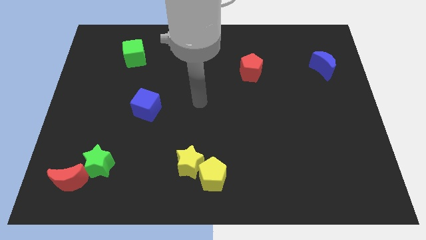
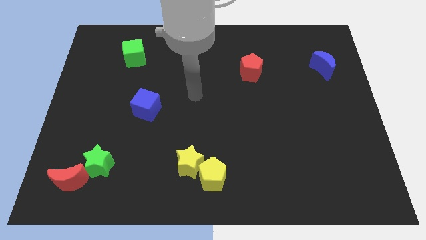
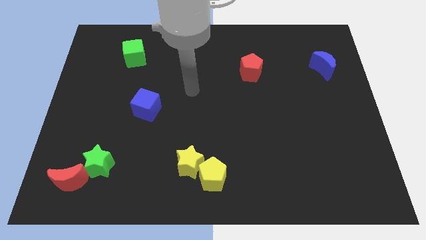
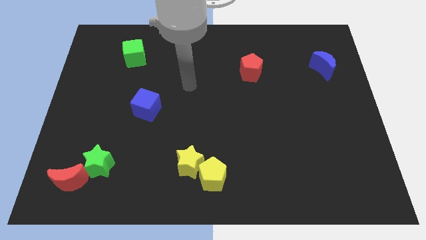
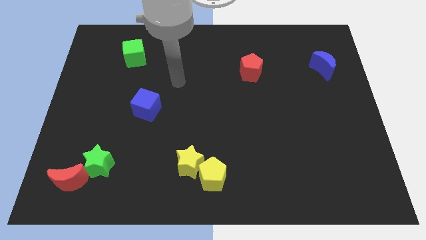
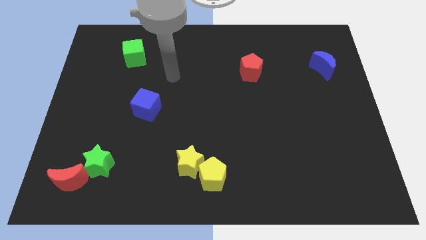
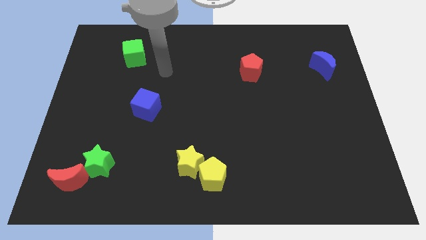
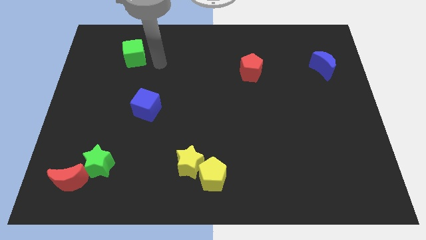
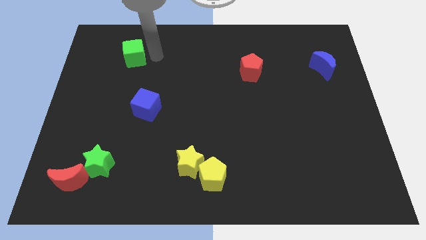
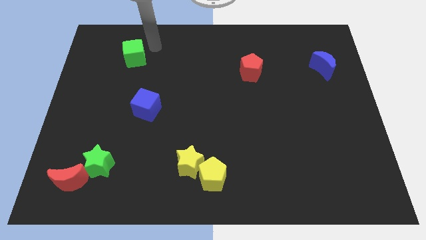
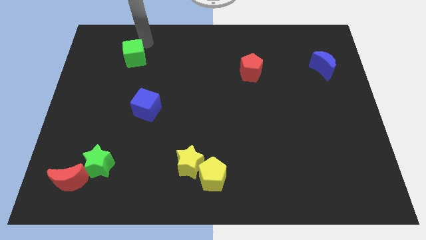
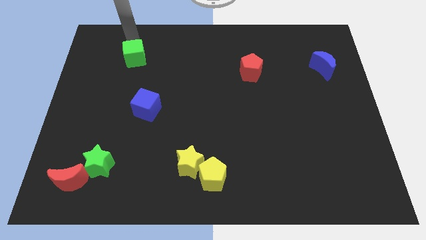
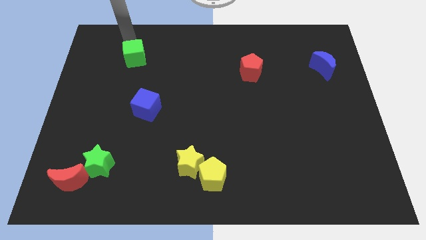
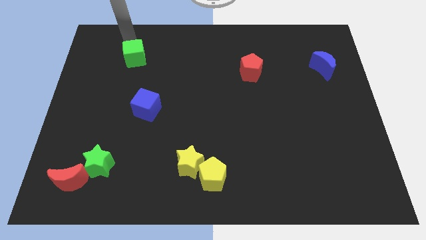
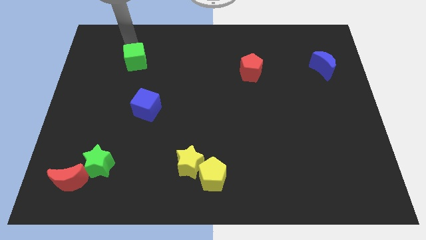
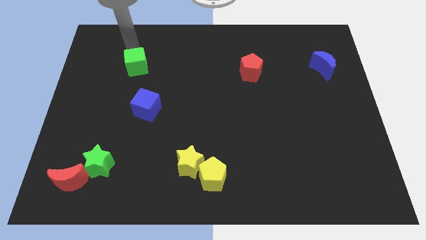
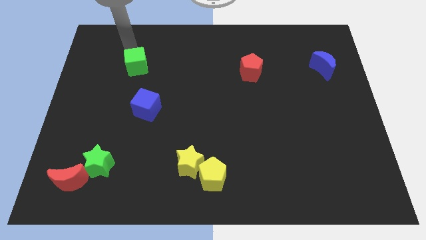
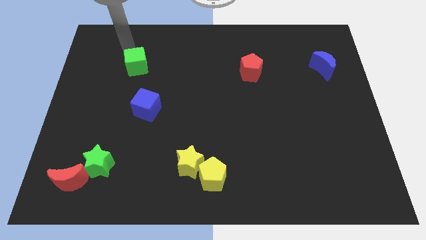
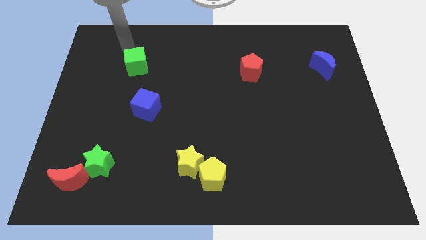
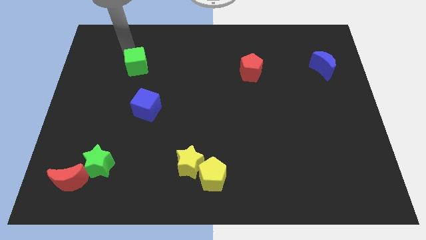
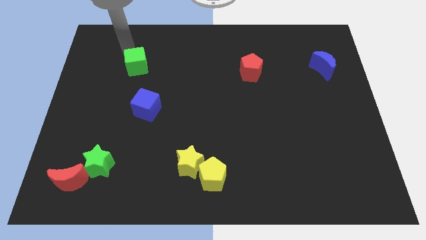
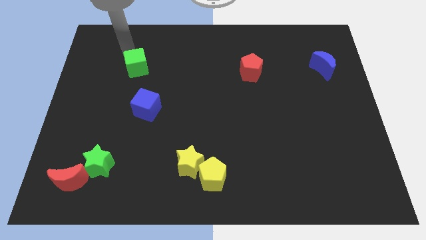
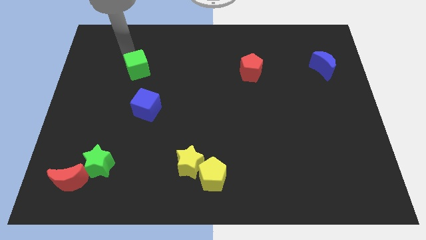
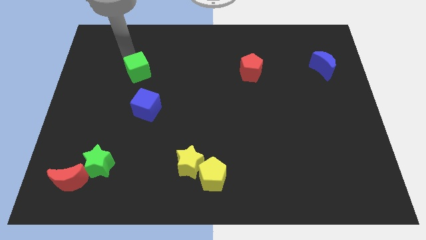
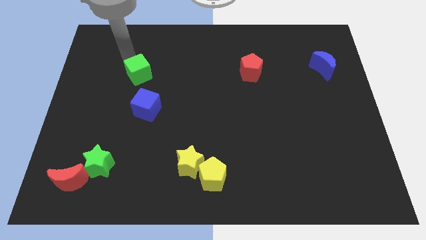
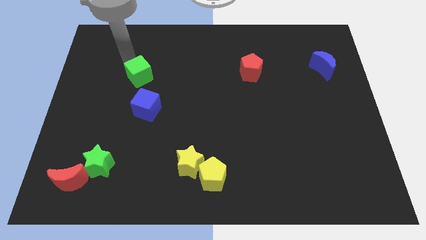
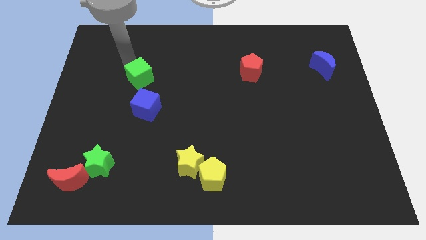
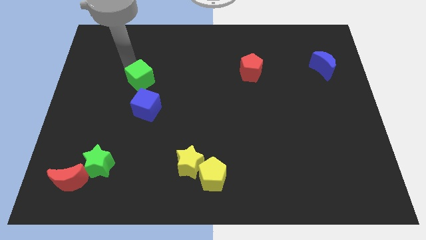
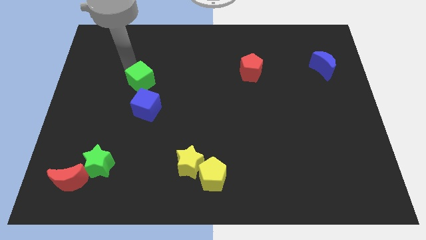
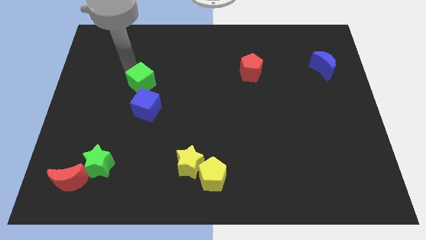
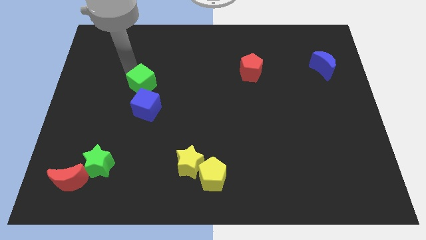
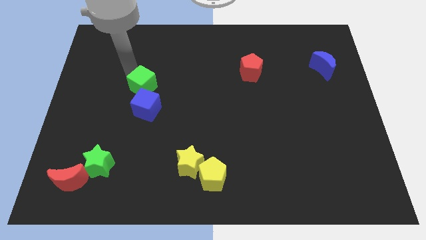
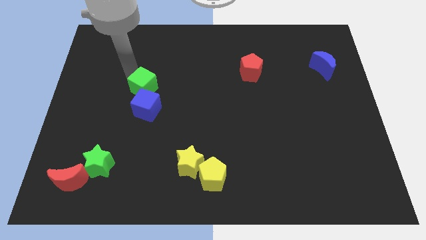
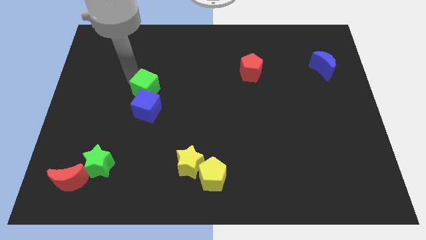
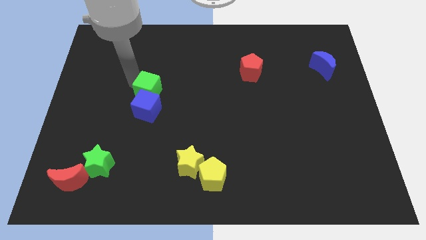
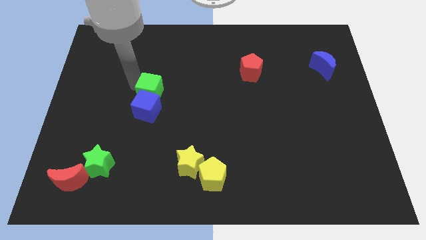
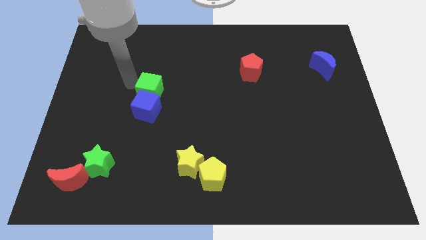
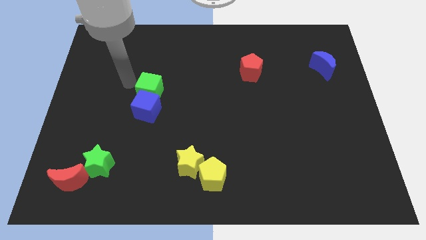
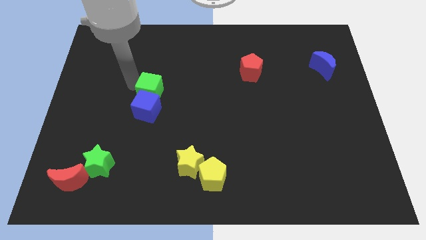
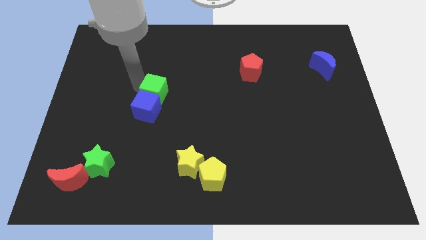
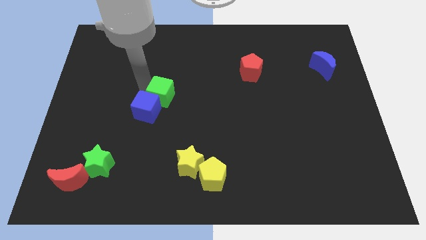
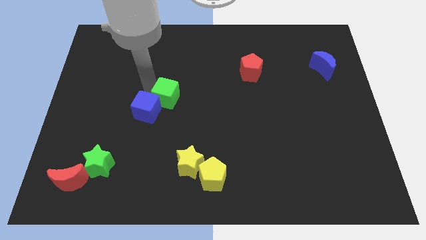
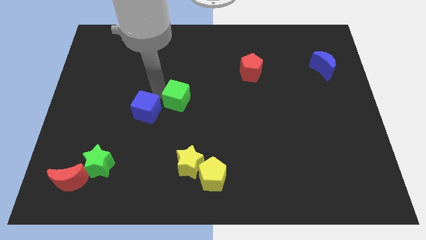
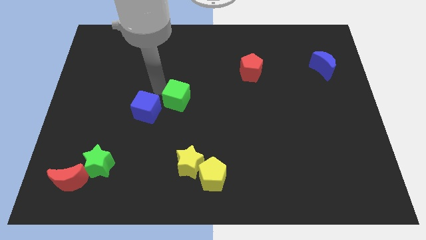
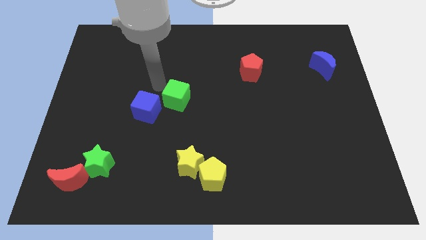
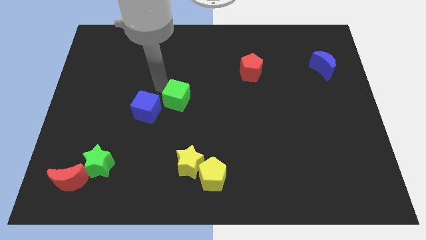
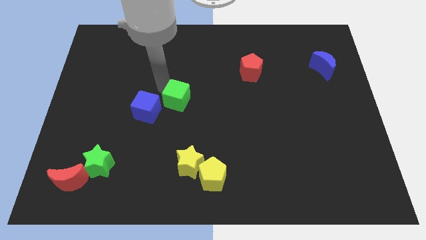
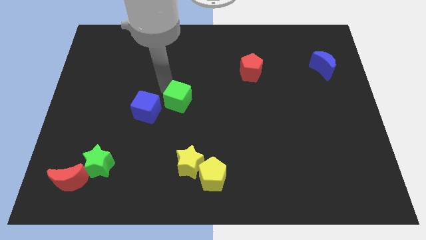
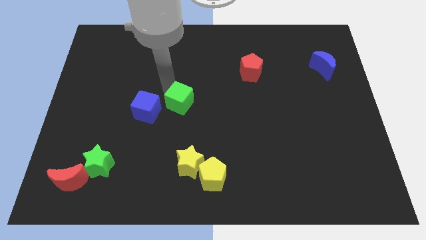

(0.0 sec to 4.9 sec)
slide the green cube downwards and then to the right

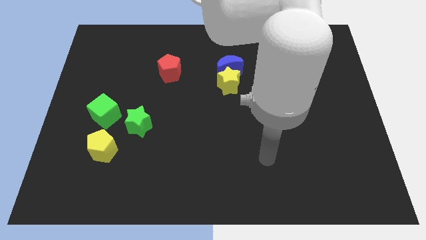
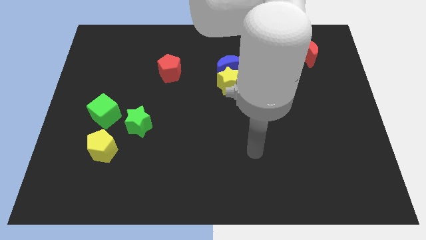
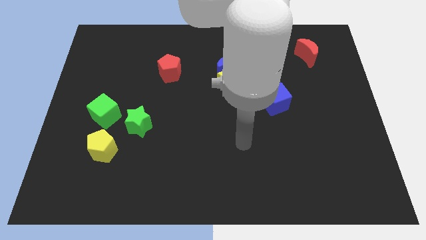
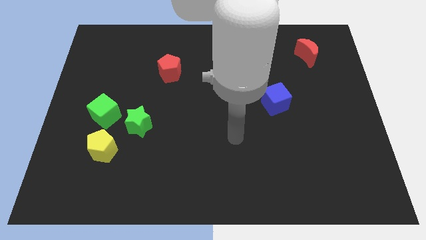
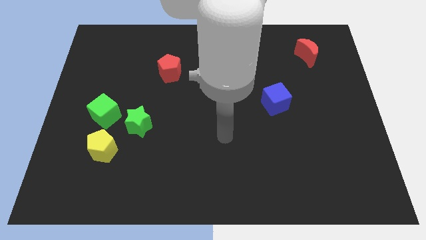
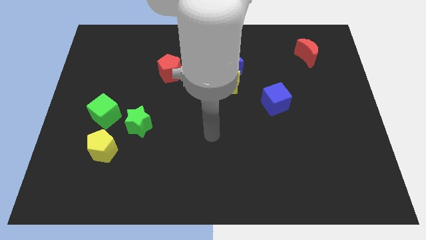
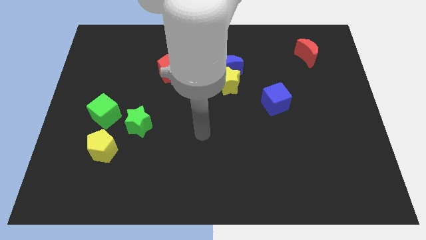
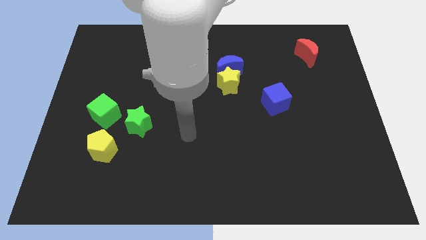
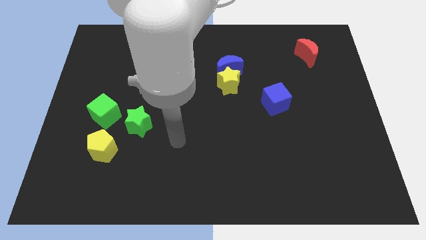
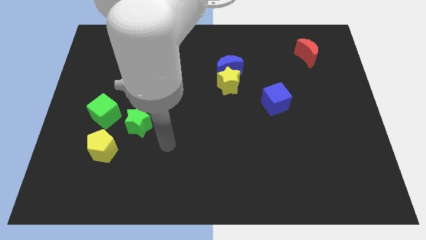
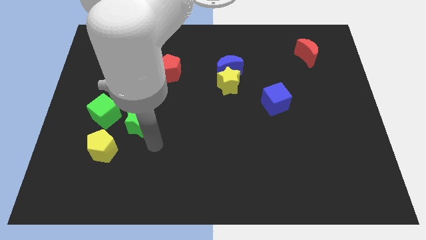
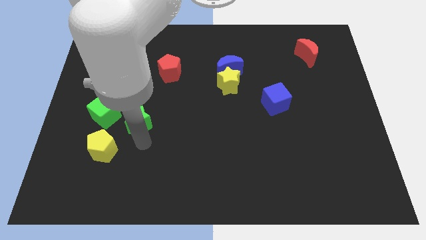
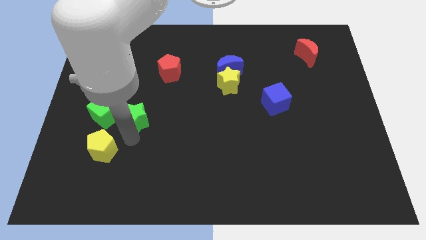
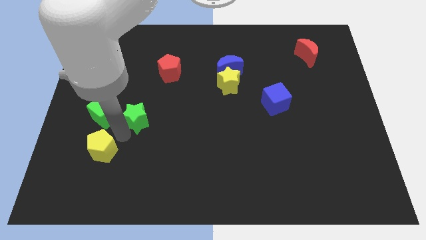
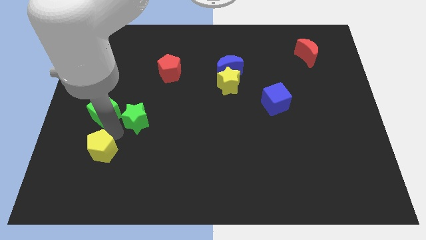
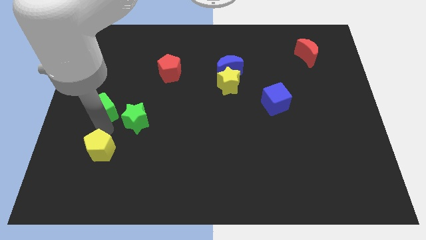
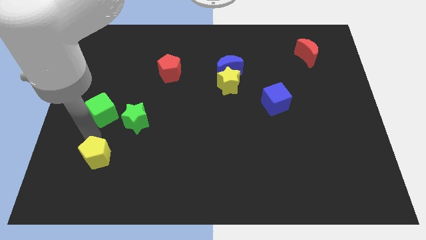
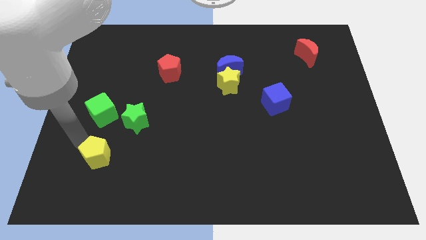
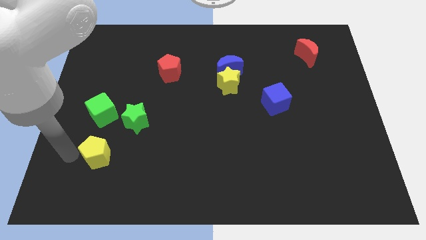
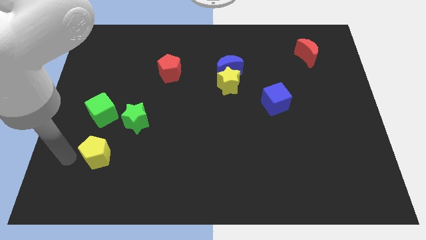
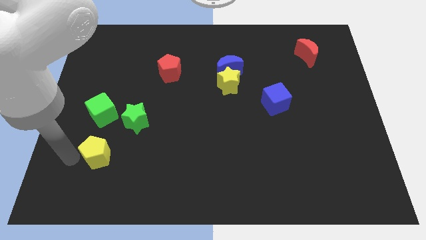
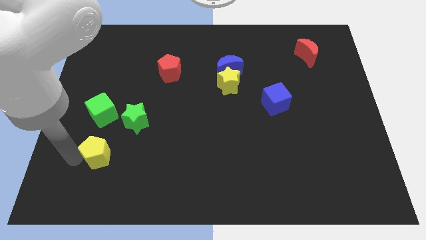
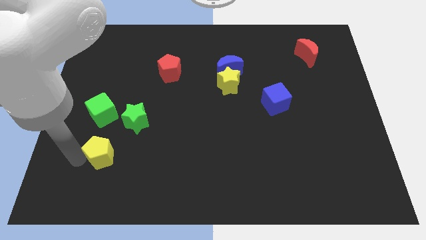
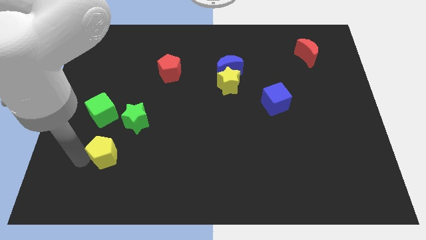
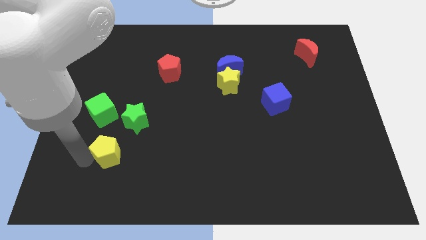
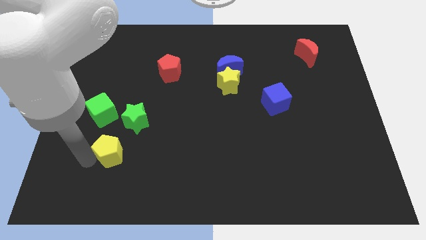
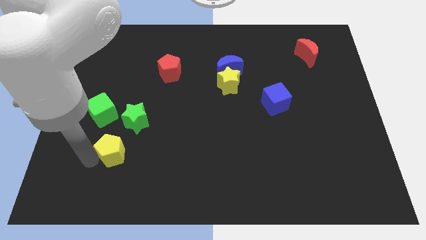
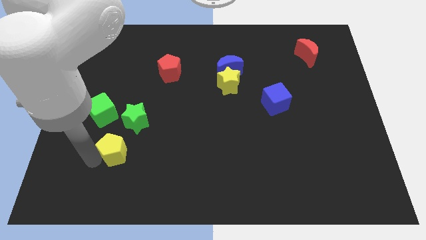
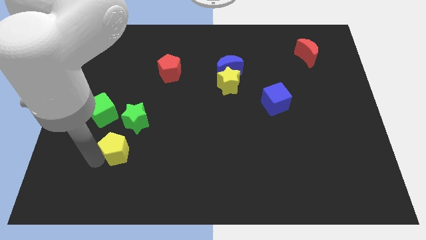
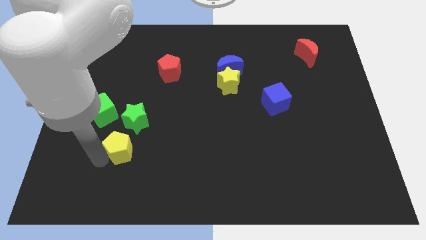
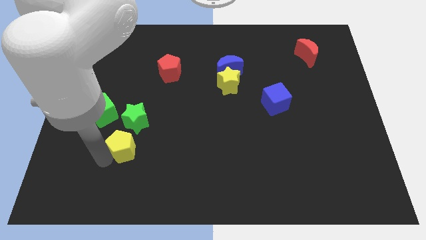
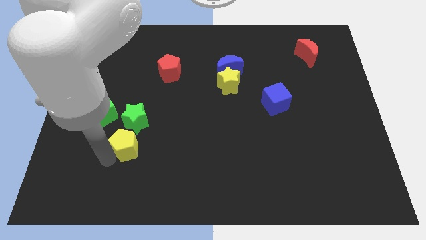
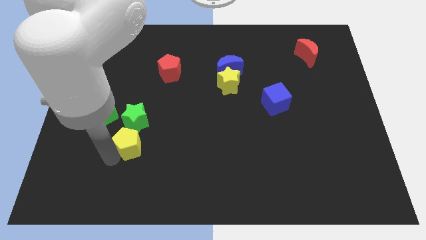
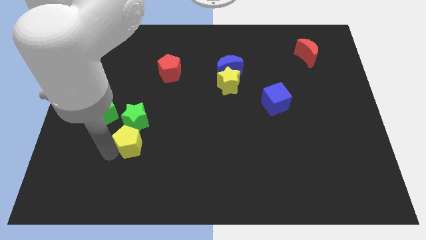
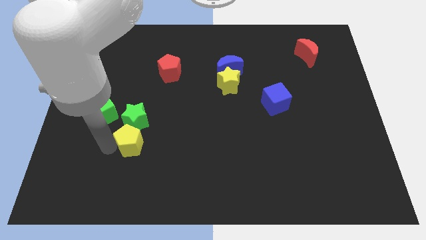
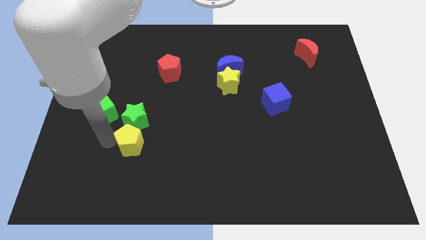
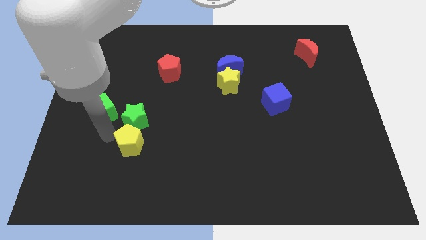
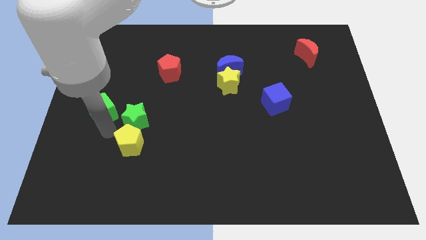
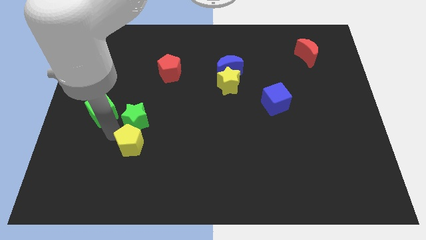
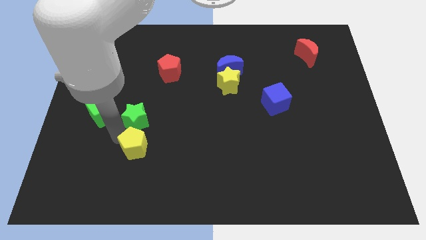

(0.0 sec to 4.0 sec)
slightly slide the yellow pentagon right
